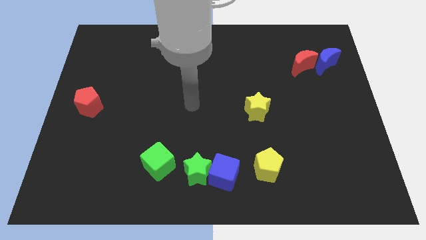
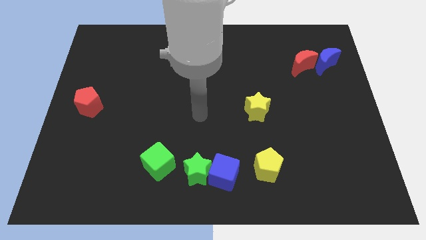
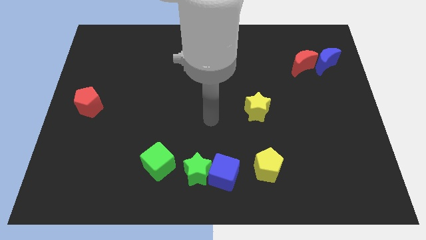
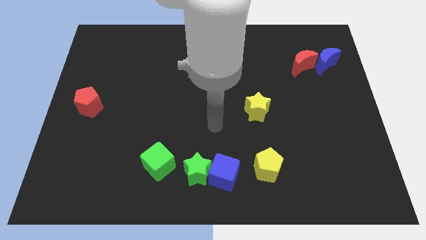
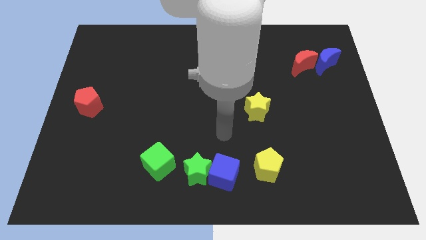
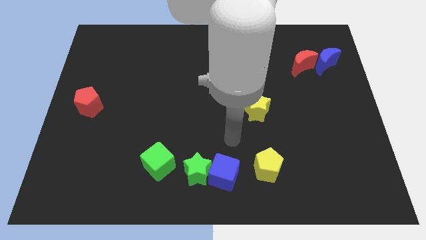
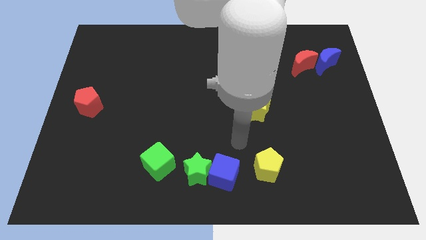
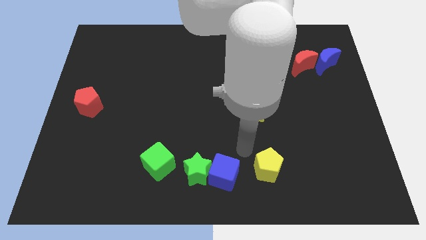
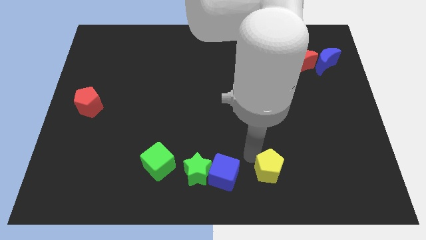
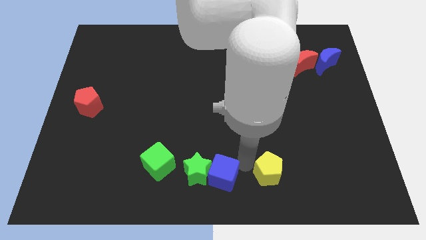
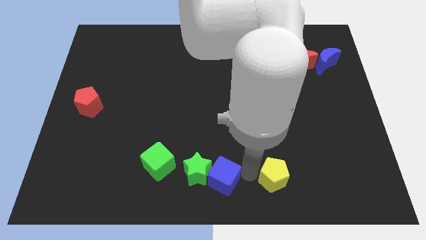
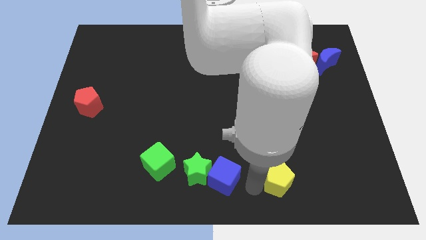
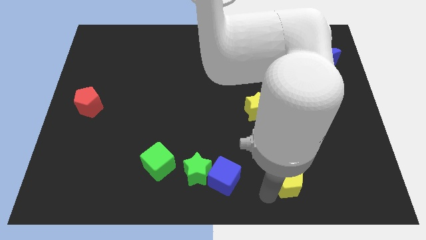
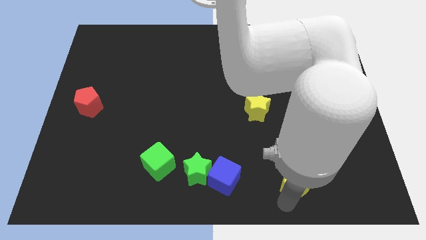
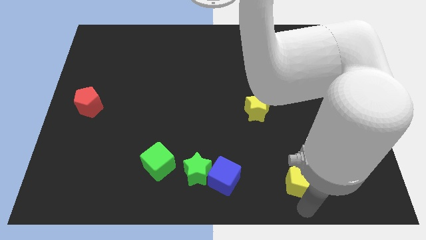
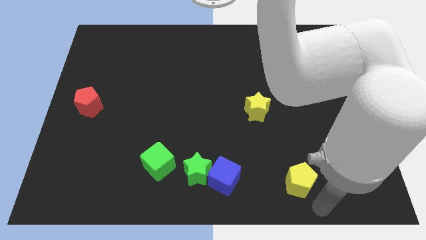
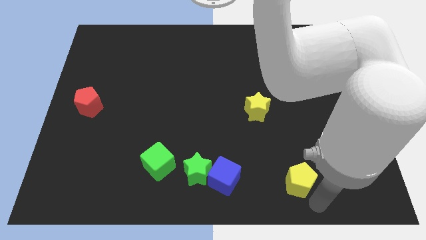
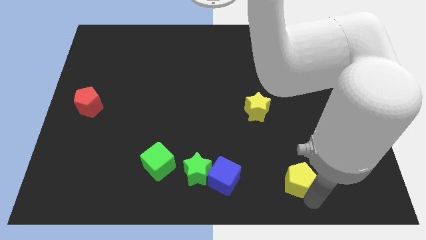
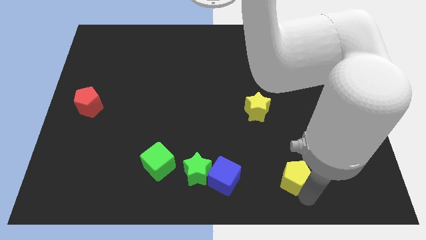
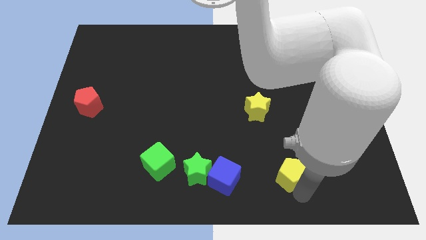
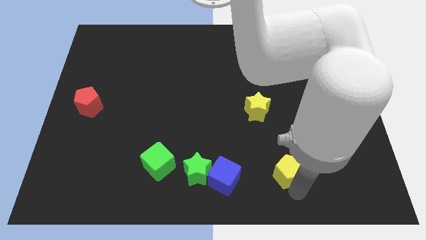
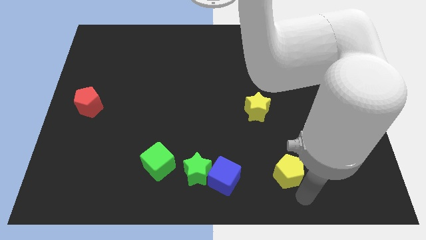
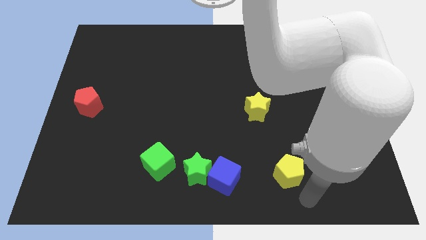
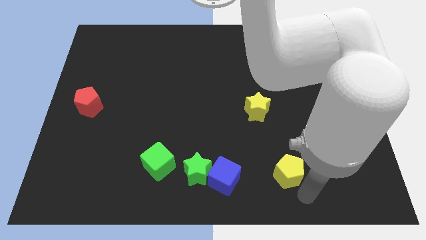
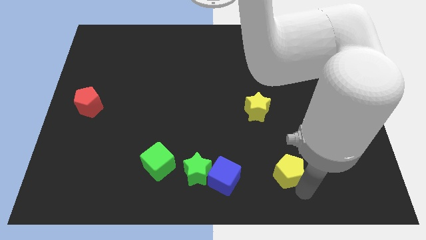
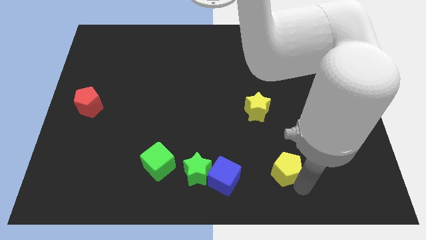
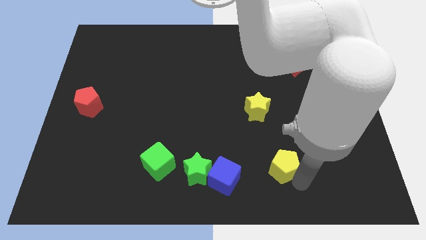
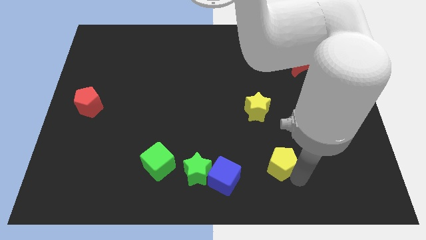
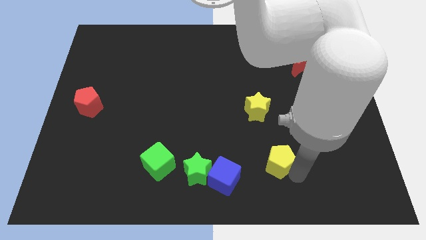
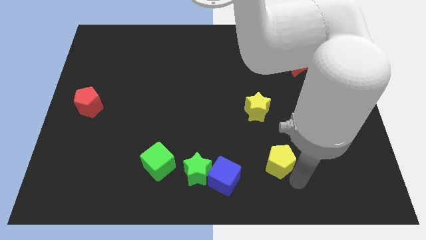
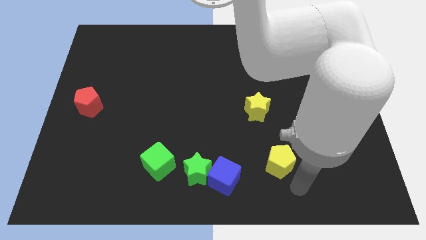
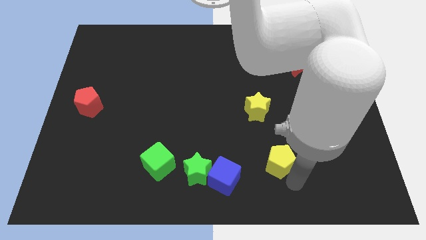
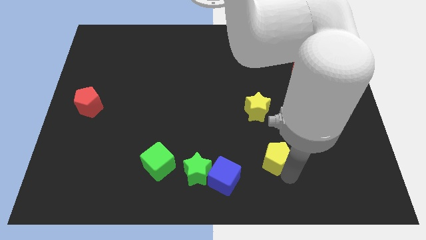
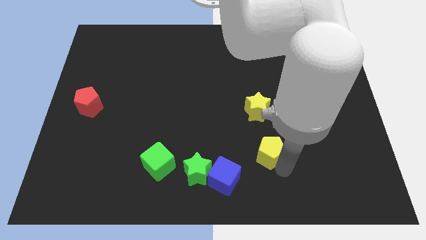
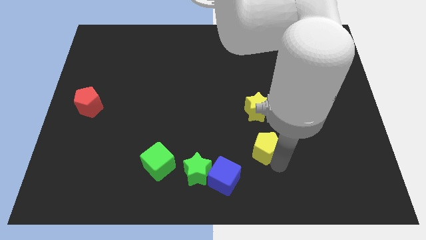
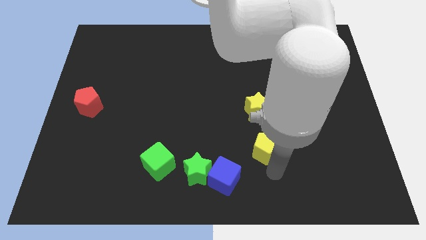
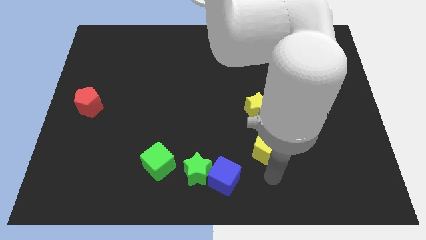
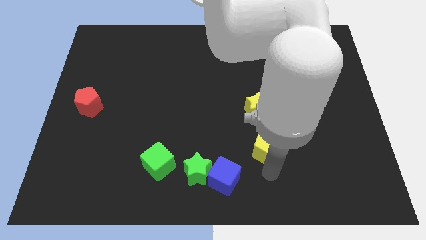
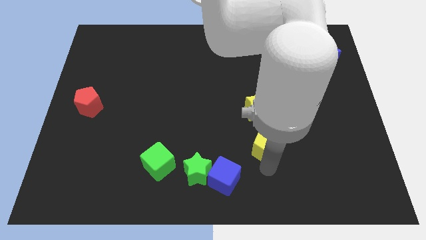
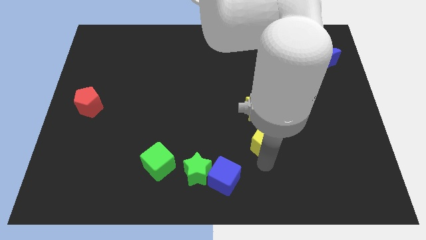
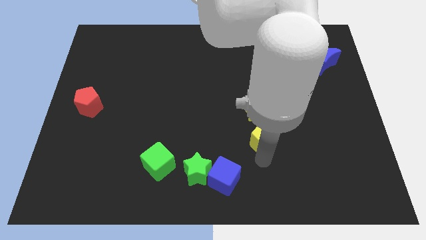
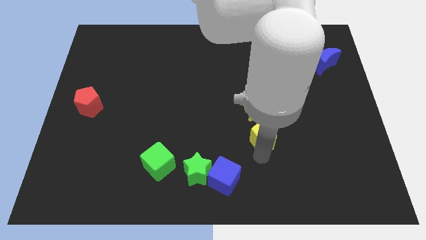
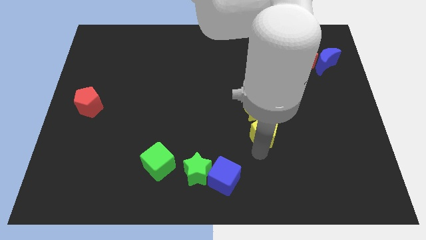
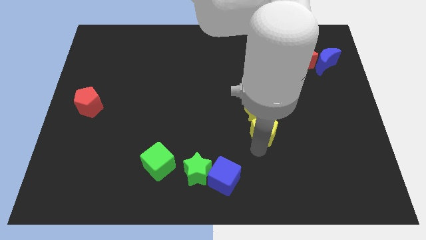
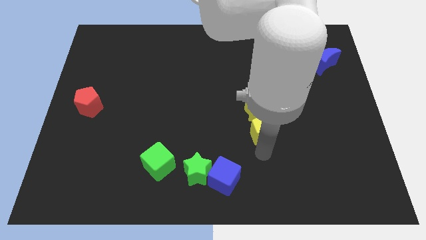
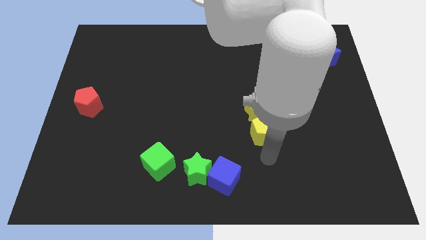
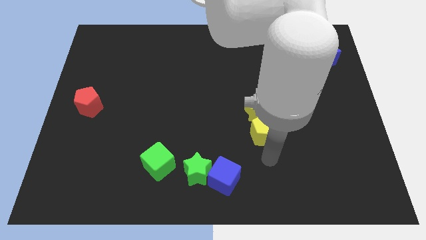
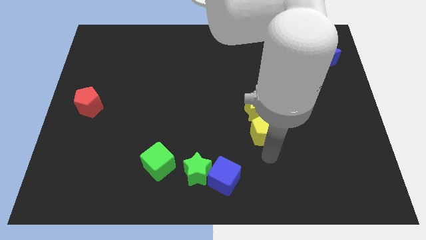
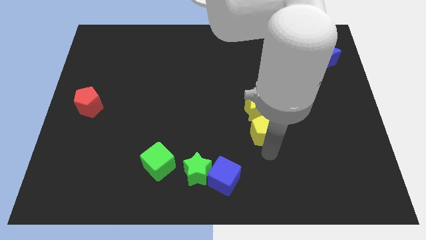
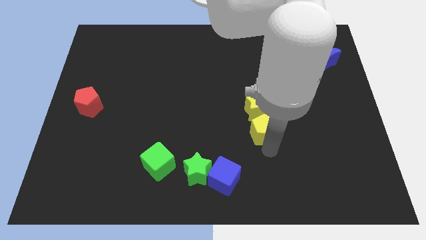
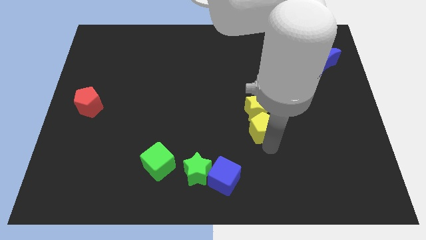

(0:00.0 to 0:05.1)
put the yellow pentagon close to the yellow star

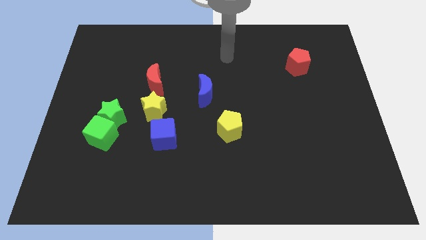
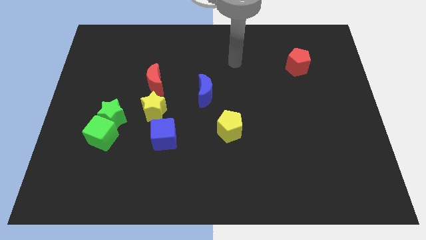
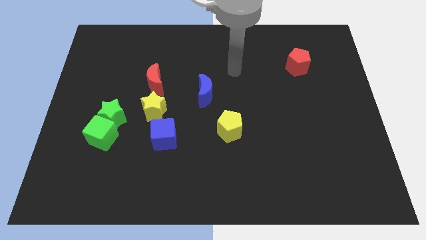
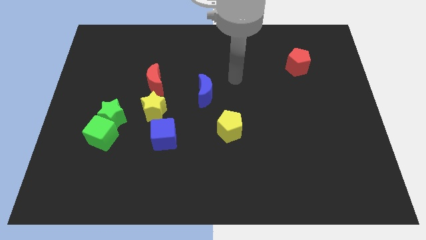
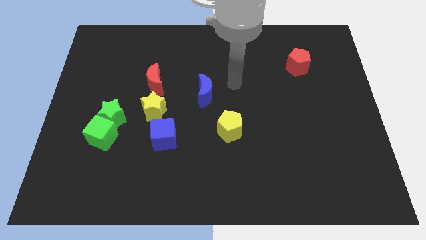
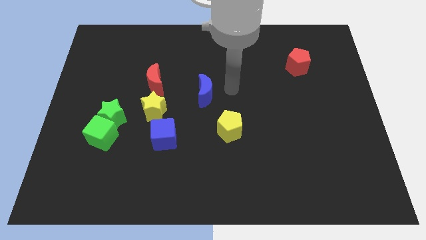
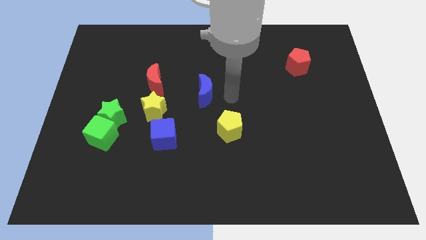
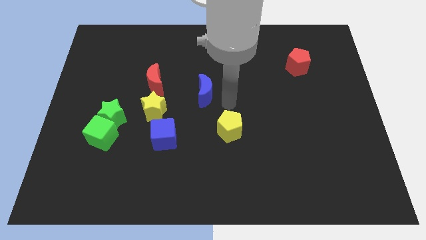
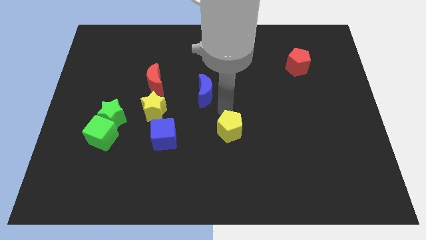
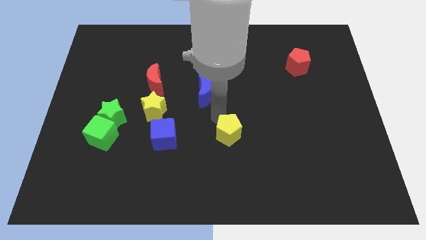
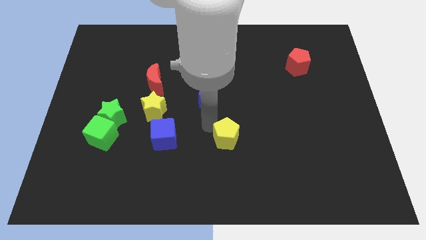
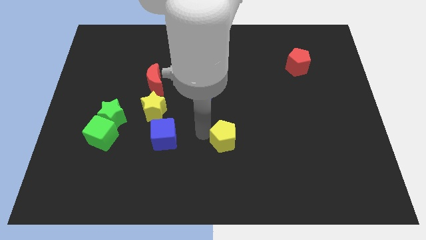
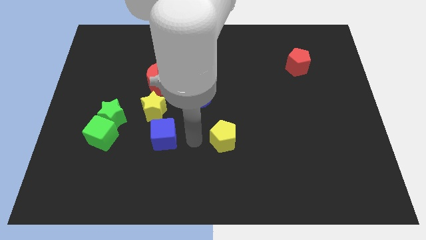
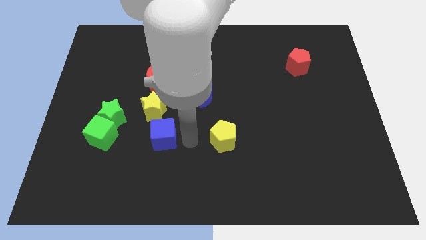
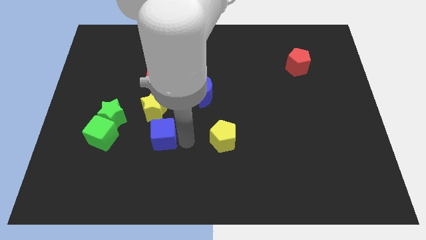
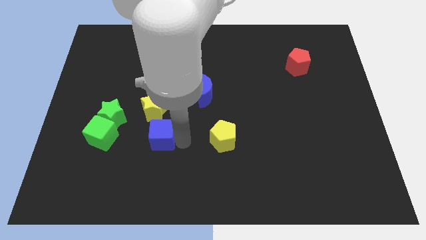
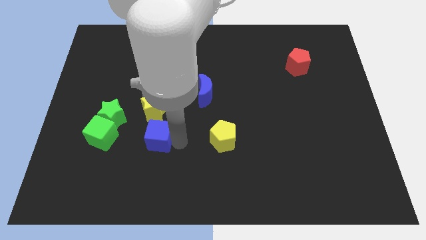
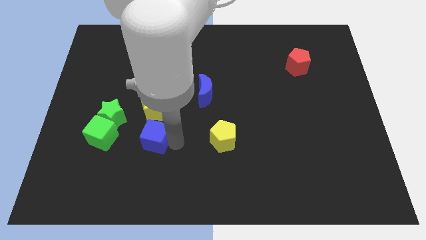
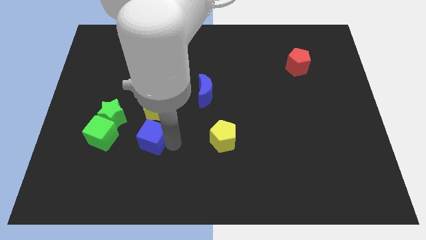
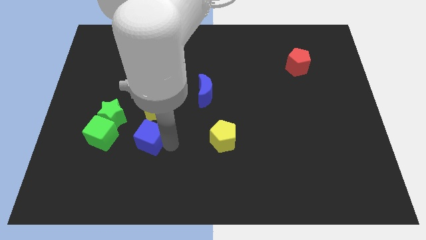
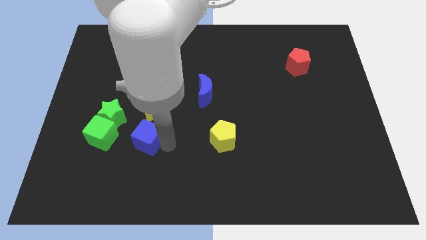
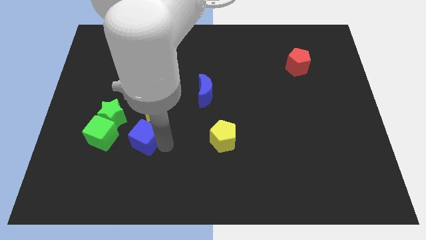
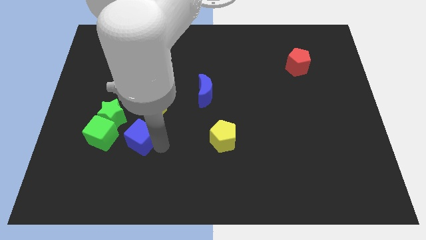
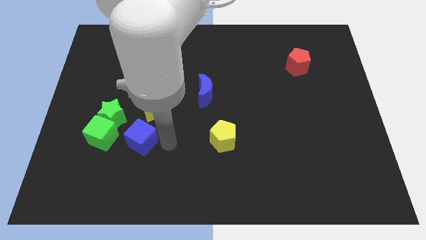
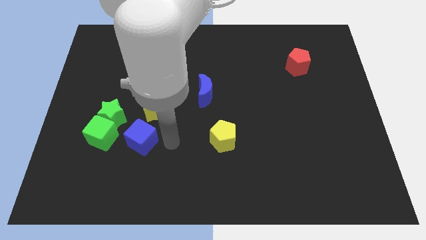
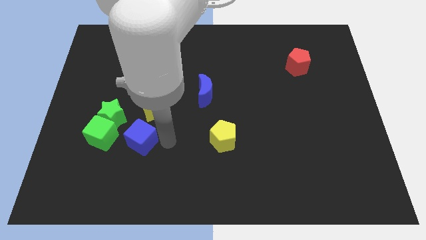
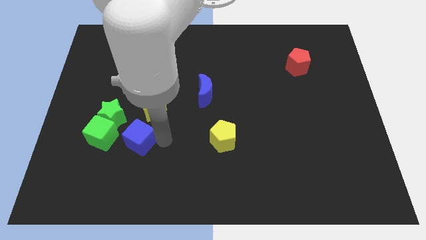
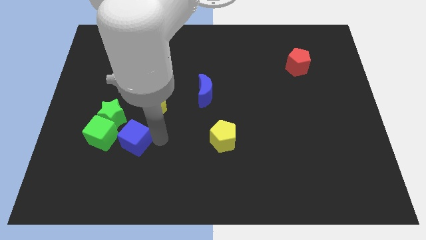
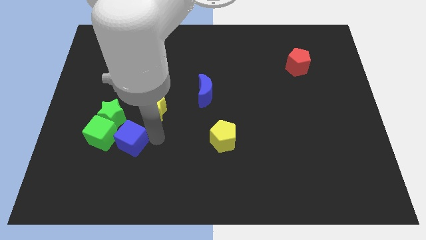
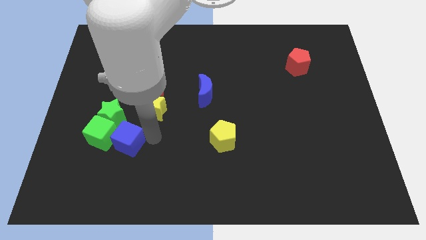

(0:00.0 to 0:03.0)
put the blue cube towards the green cube
